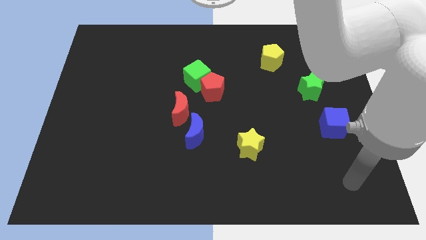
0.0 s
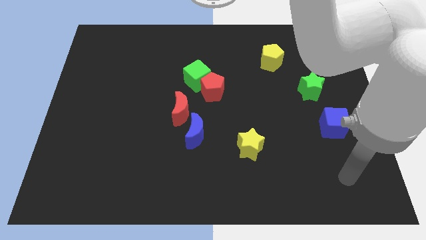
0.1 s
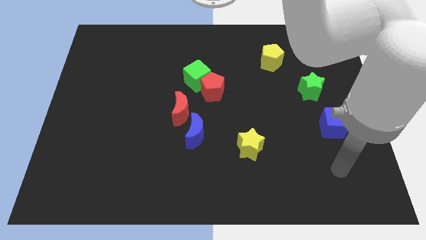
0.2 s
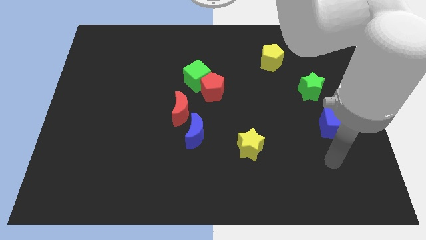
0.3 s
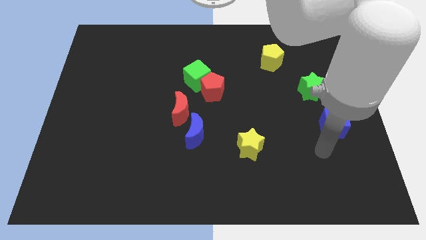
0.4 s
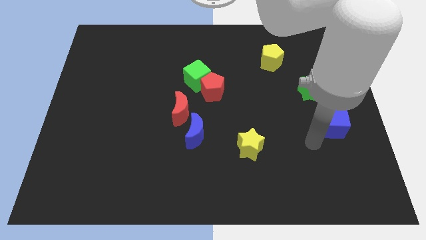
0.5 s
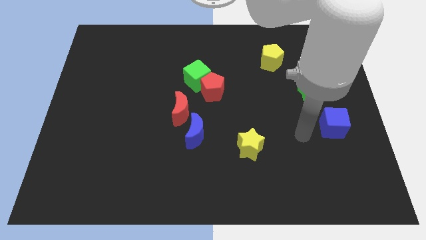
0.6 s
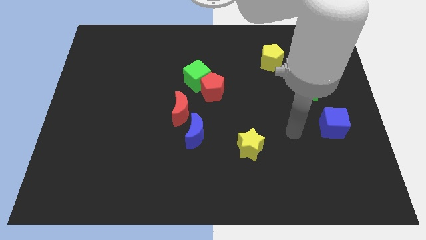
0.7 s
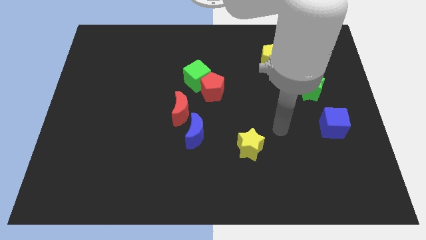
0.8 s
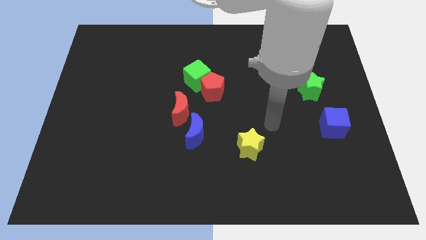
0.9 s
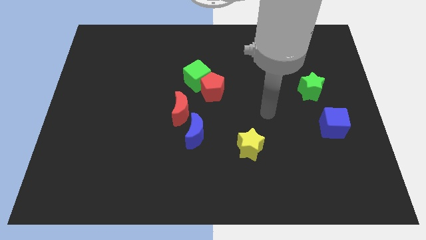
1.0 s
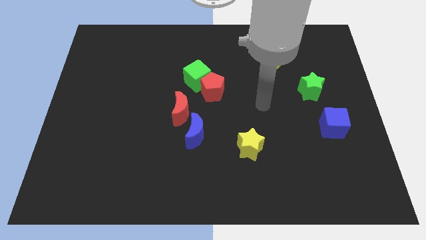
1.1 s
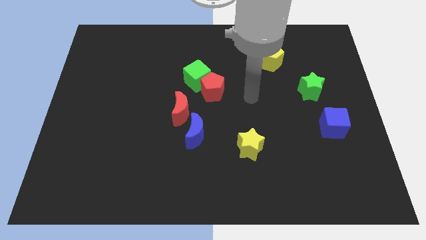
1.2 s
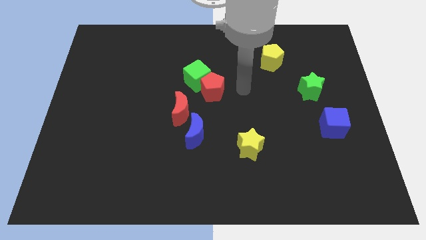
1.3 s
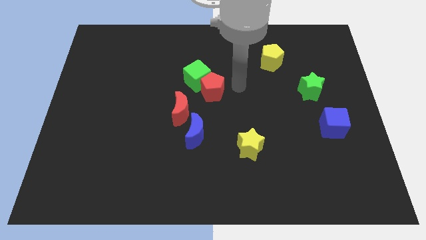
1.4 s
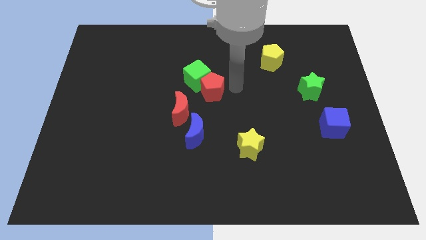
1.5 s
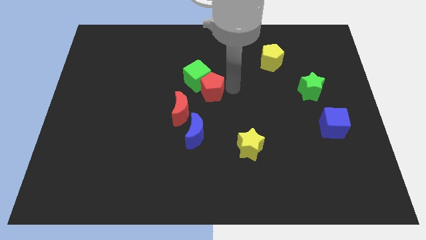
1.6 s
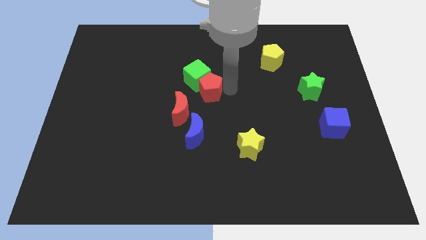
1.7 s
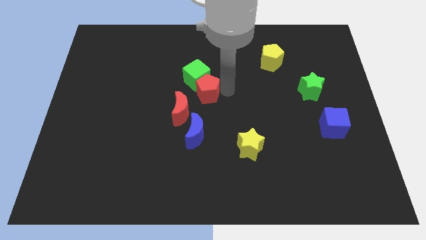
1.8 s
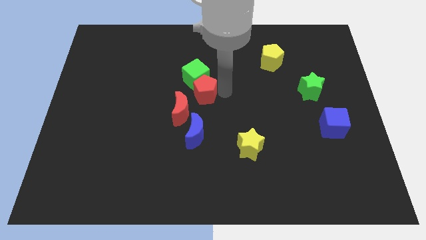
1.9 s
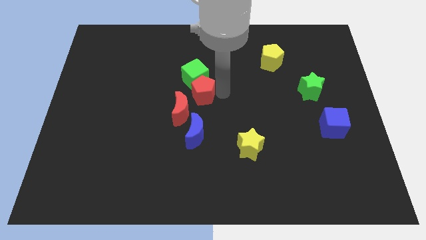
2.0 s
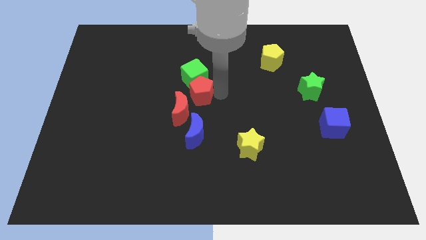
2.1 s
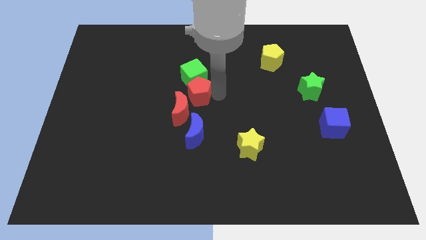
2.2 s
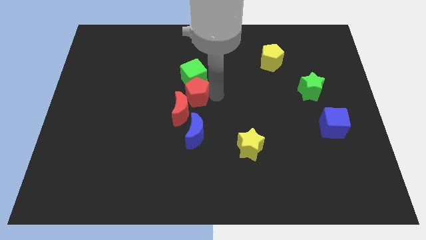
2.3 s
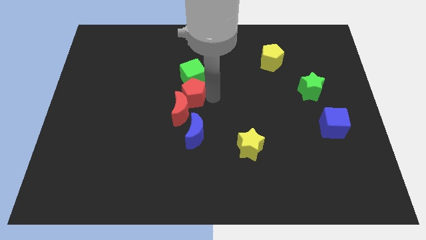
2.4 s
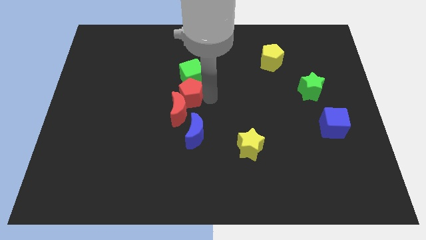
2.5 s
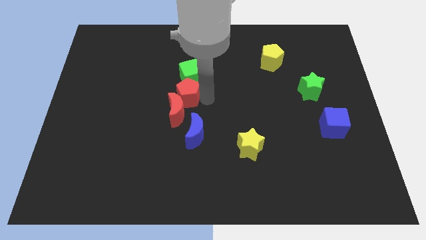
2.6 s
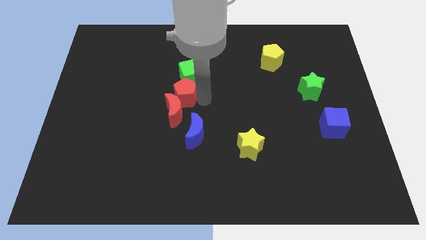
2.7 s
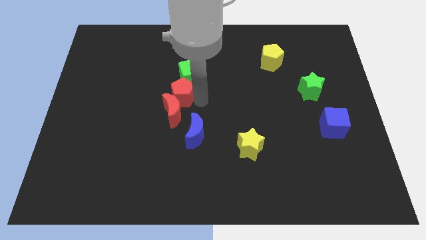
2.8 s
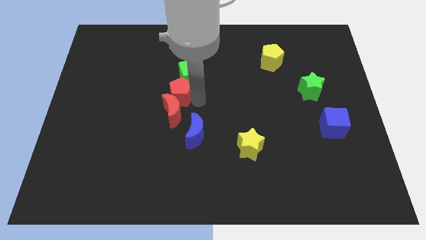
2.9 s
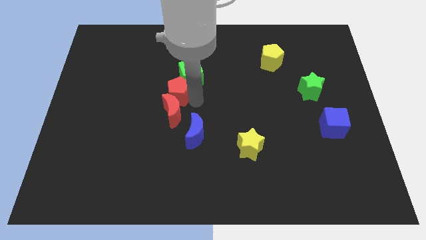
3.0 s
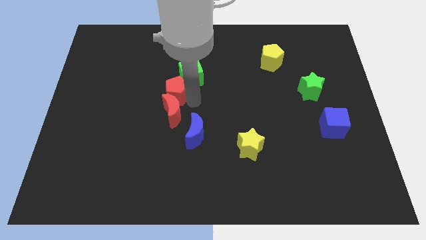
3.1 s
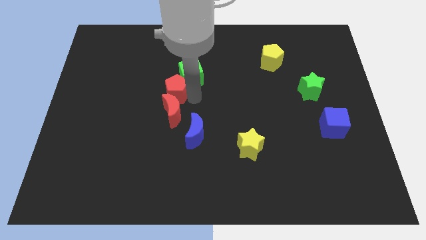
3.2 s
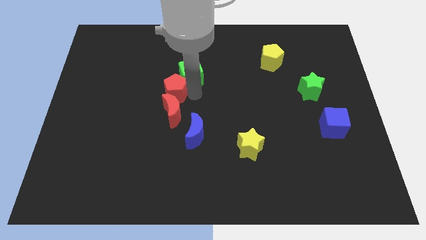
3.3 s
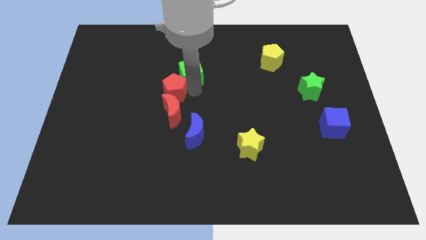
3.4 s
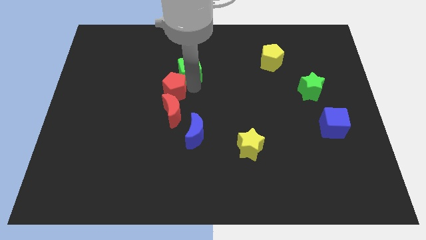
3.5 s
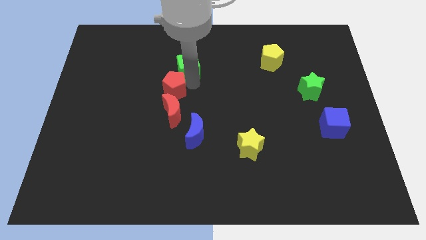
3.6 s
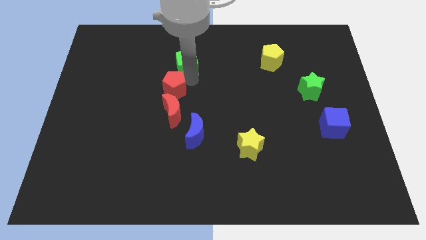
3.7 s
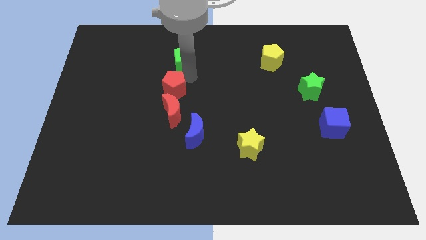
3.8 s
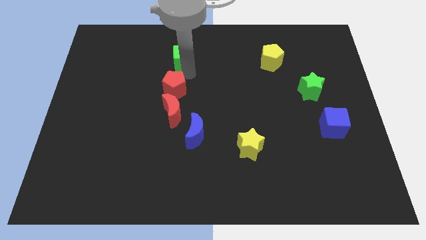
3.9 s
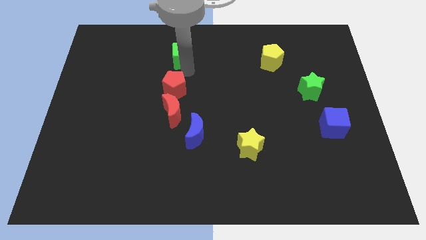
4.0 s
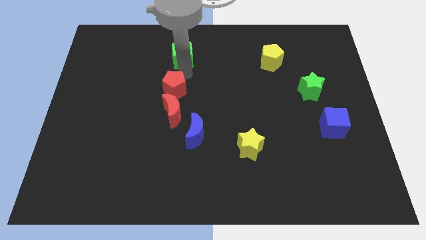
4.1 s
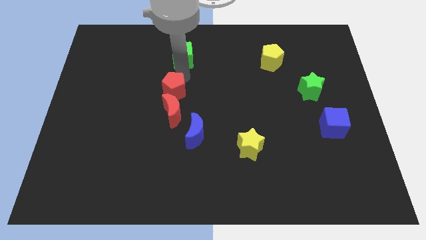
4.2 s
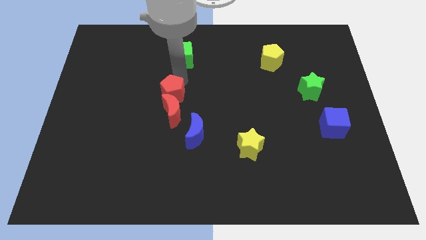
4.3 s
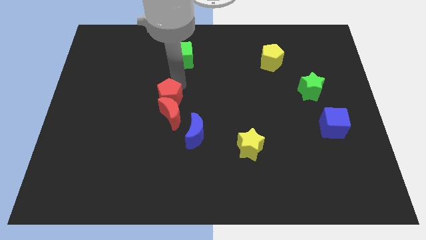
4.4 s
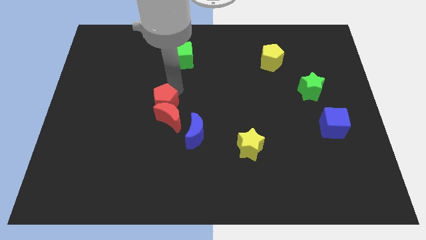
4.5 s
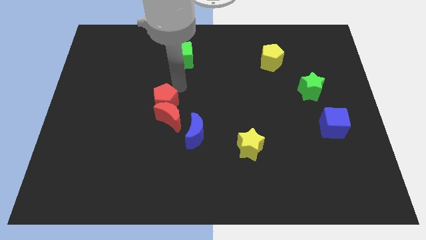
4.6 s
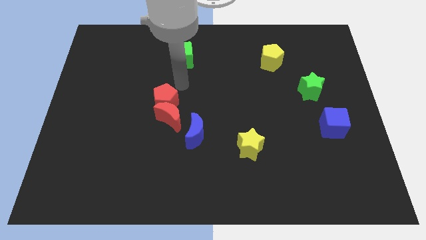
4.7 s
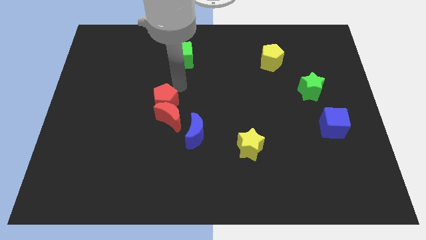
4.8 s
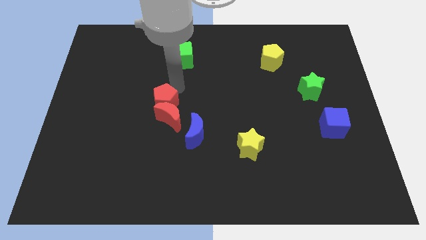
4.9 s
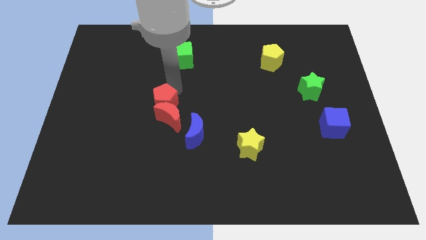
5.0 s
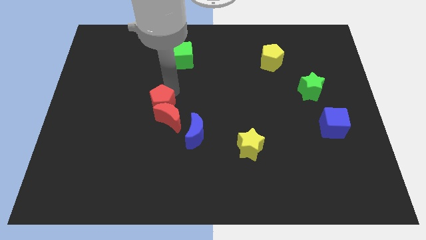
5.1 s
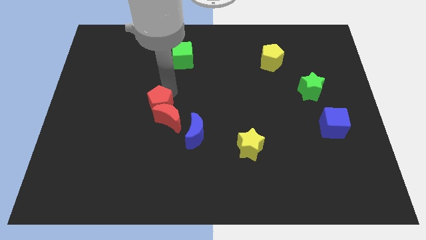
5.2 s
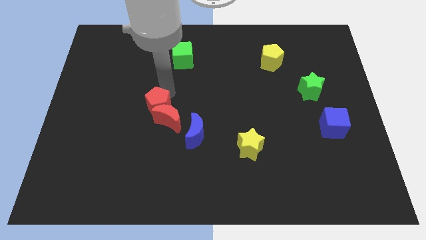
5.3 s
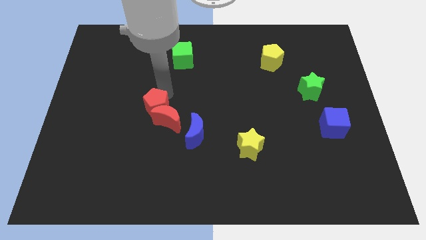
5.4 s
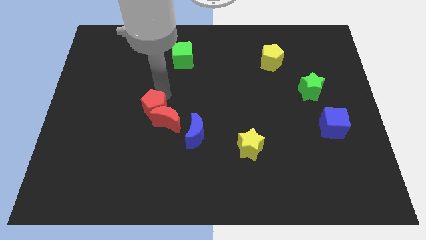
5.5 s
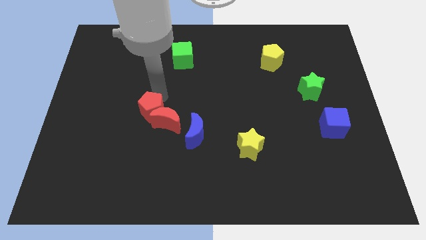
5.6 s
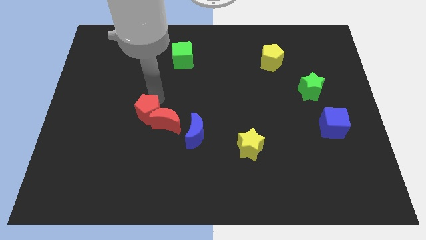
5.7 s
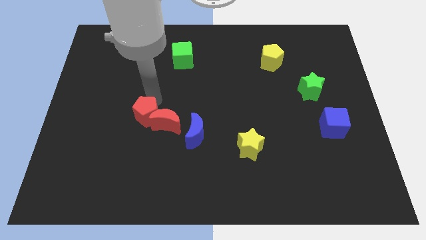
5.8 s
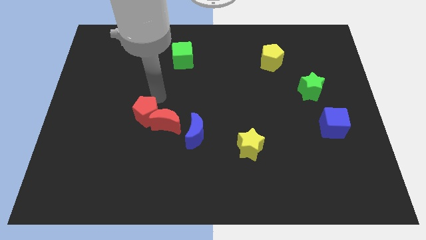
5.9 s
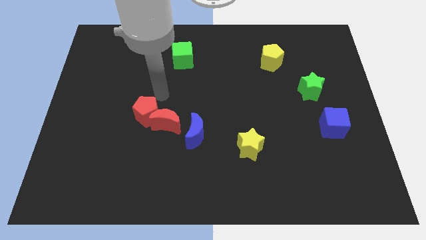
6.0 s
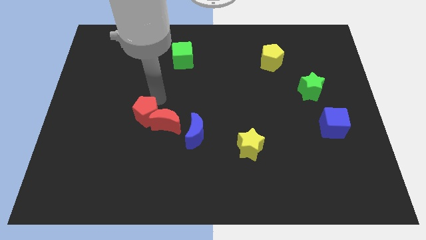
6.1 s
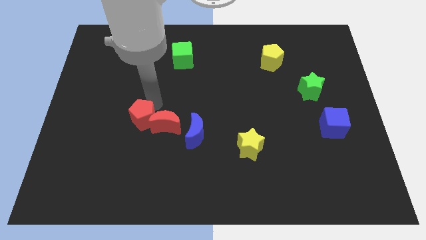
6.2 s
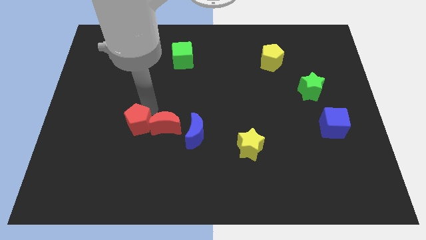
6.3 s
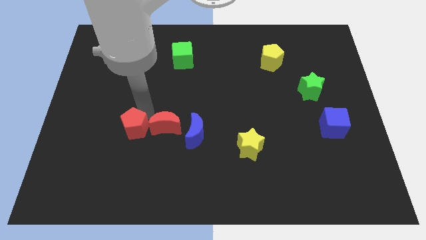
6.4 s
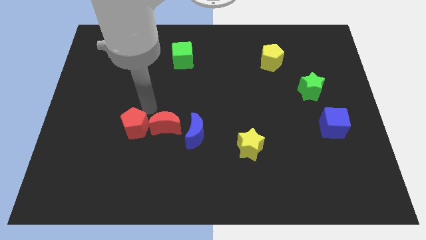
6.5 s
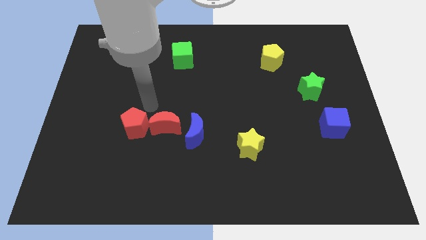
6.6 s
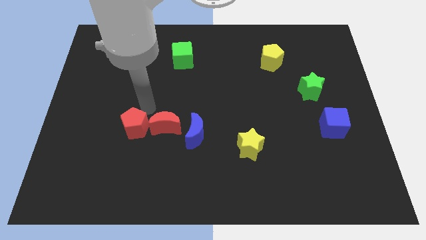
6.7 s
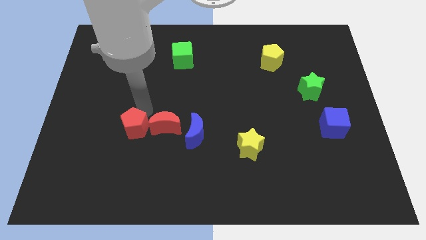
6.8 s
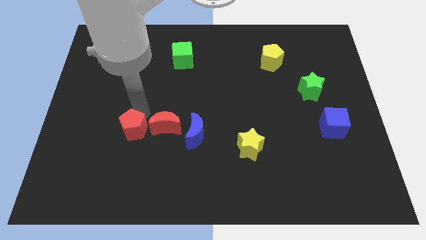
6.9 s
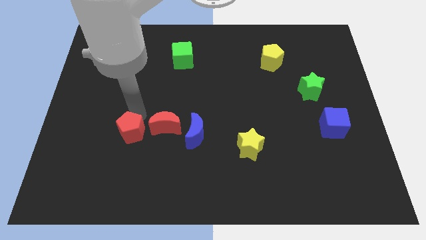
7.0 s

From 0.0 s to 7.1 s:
move the red pentagon diagonally downwards and to the left

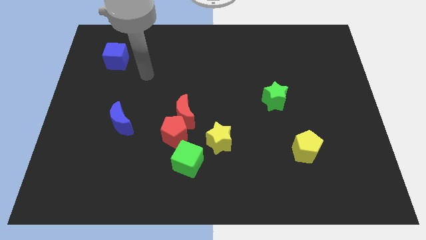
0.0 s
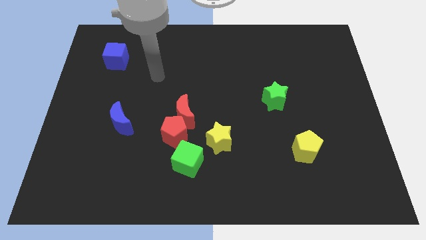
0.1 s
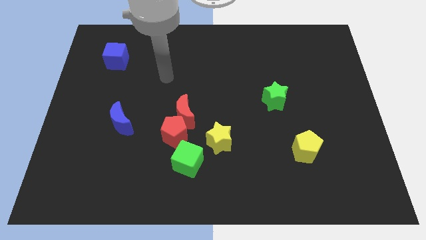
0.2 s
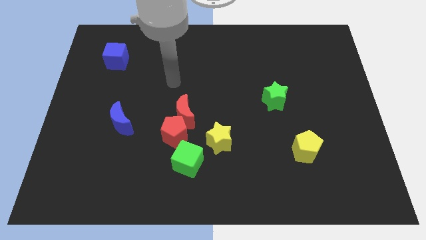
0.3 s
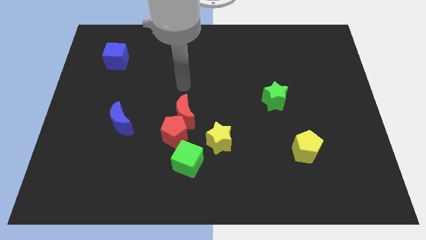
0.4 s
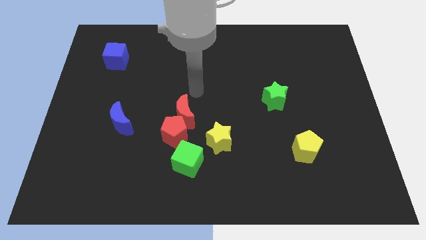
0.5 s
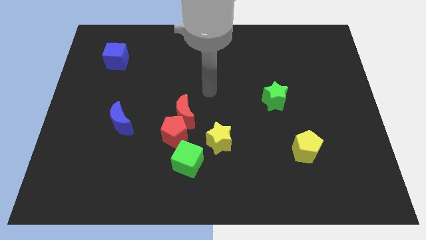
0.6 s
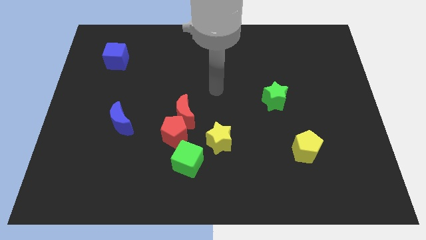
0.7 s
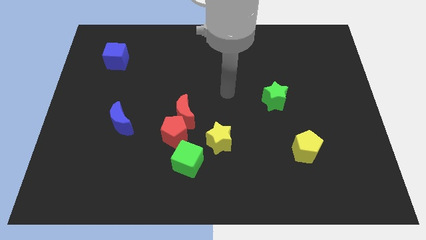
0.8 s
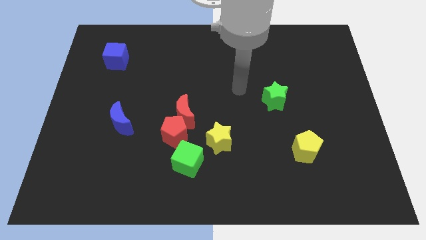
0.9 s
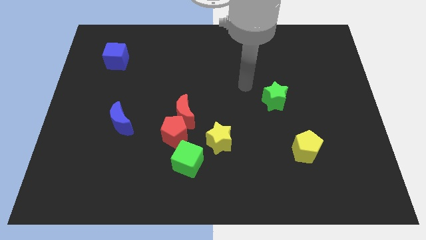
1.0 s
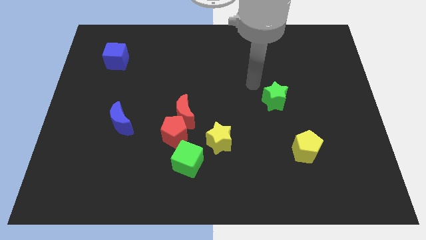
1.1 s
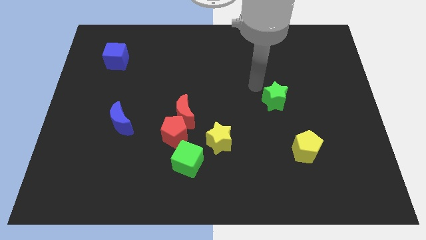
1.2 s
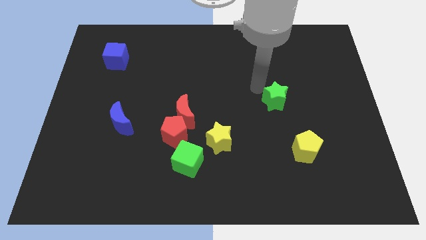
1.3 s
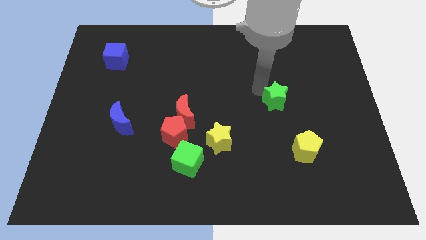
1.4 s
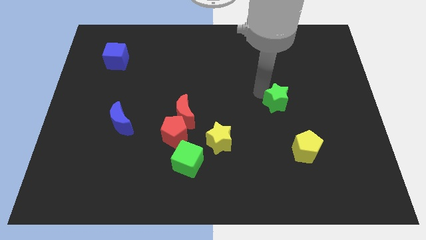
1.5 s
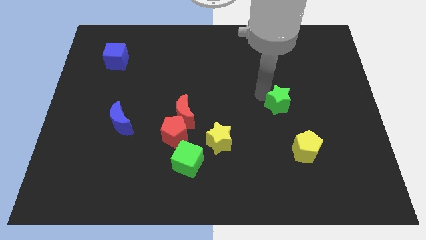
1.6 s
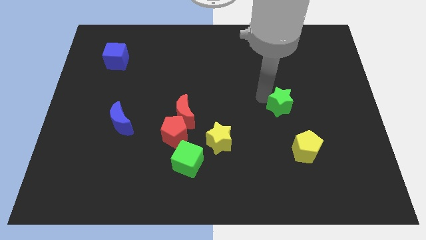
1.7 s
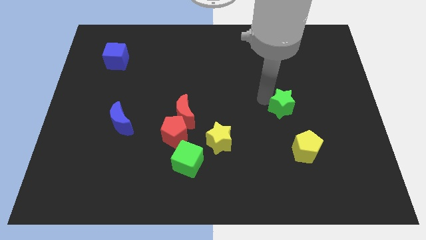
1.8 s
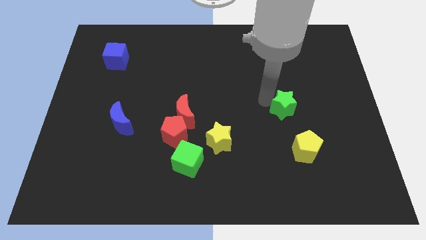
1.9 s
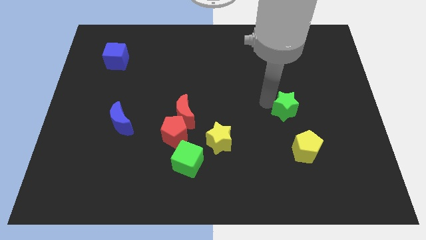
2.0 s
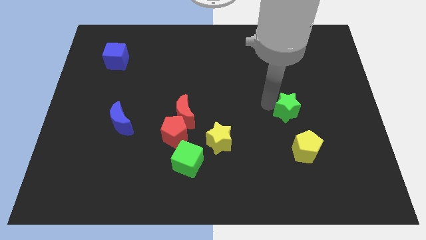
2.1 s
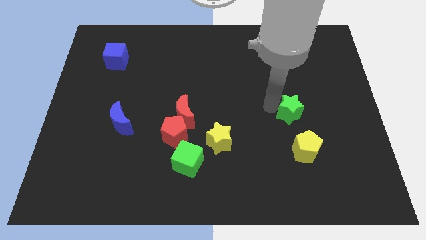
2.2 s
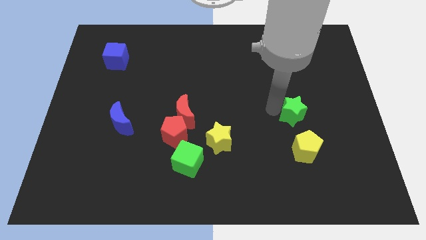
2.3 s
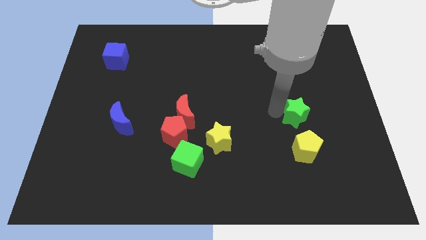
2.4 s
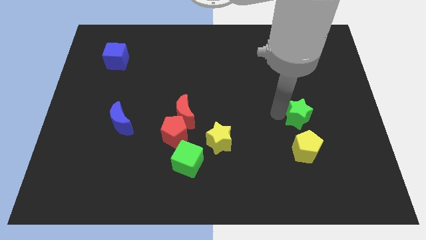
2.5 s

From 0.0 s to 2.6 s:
slightly push the green star downwards and right diagonally
